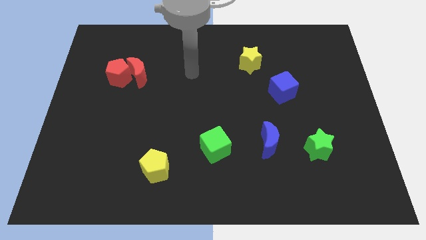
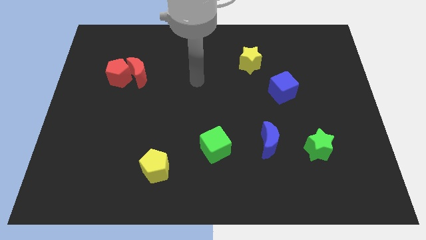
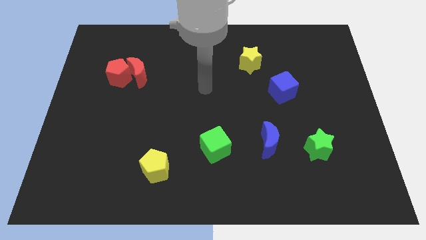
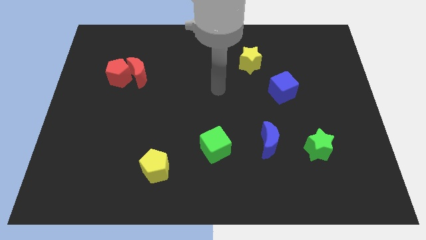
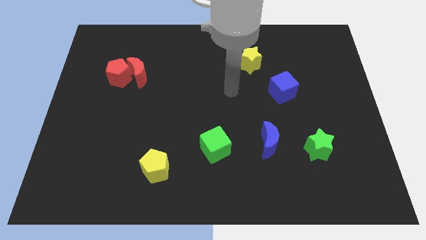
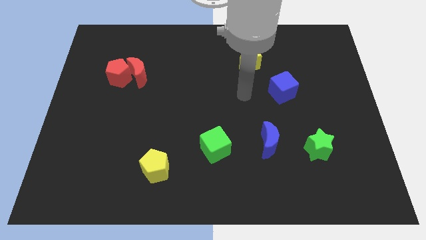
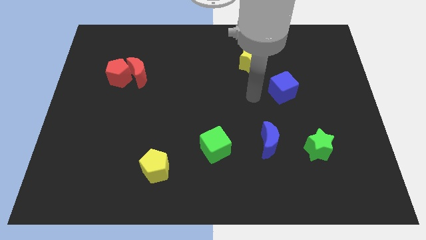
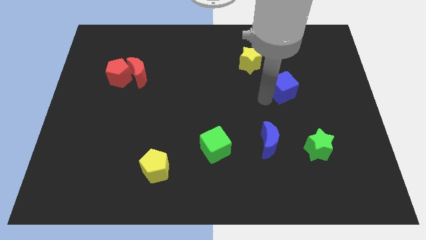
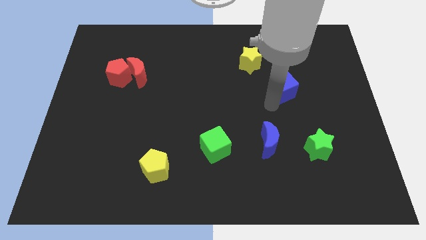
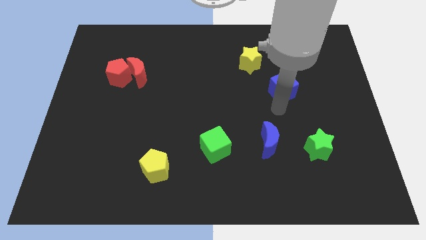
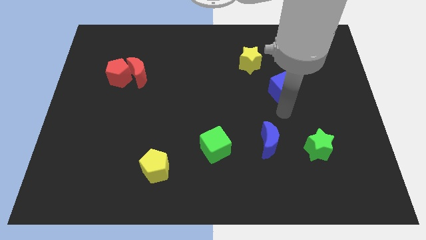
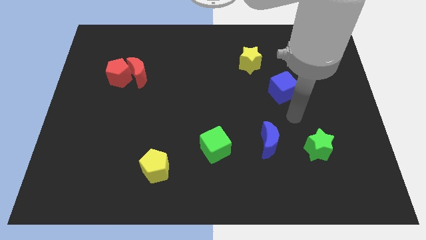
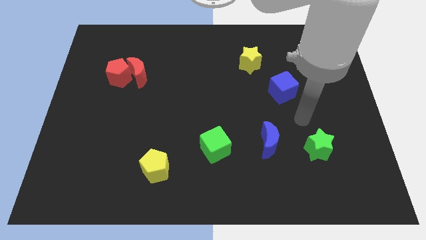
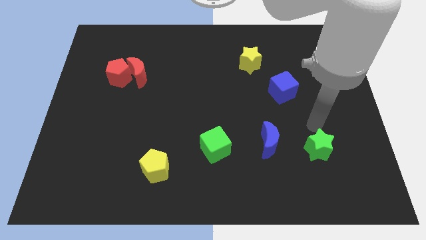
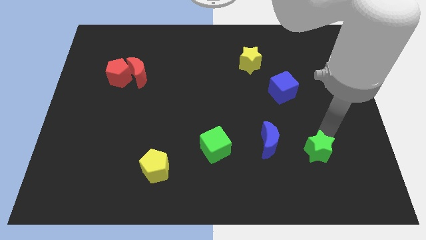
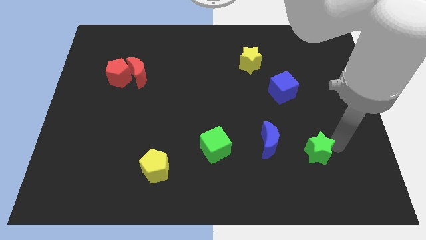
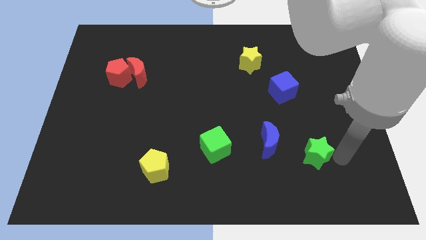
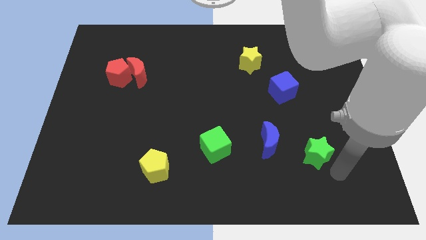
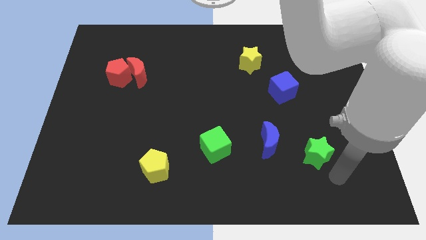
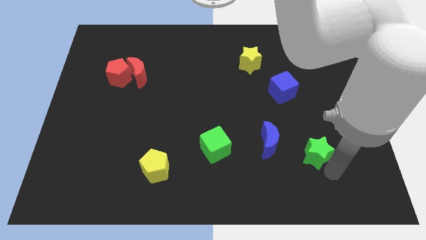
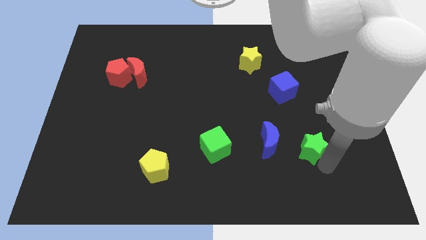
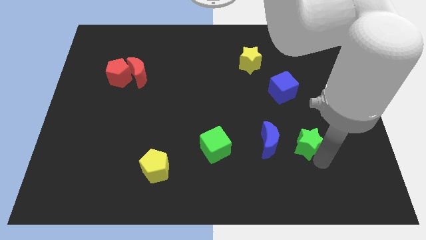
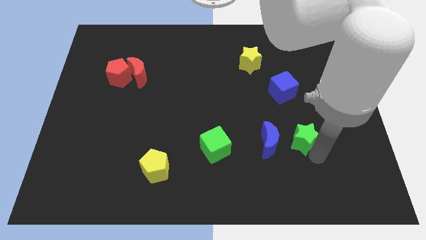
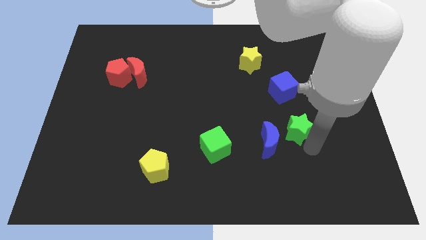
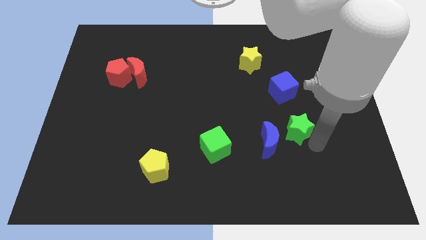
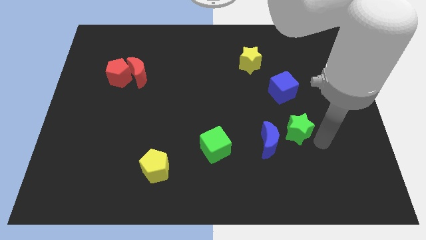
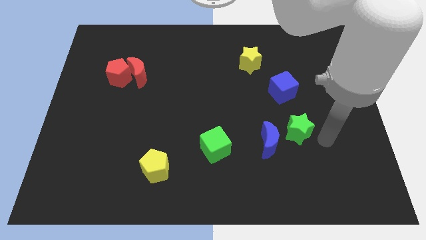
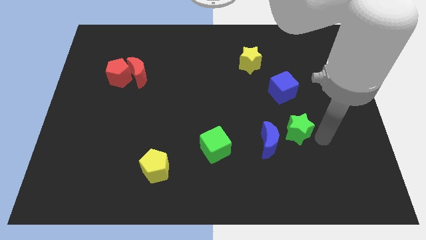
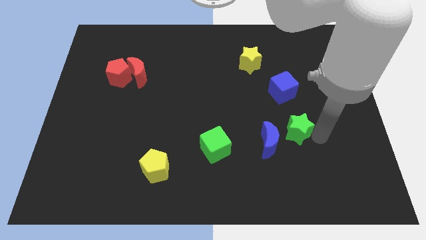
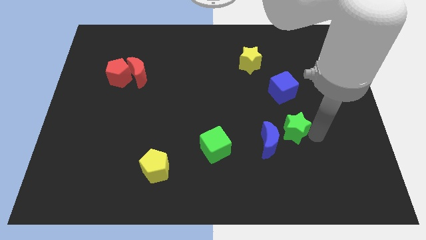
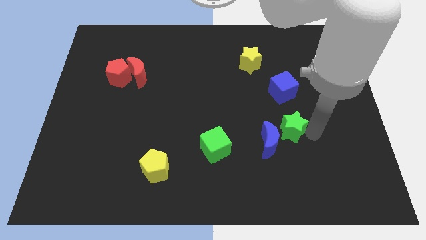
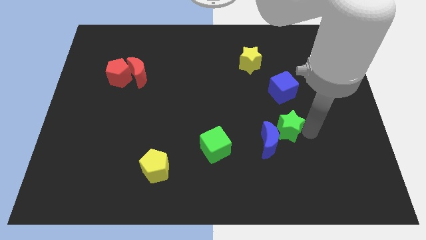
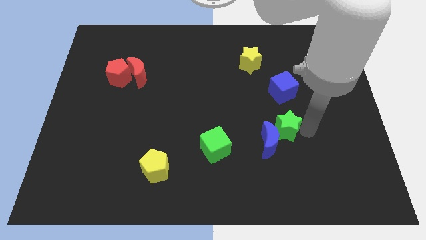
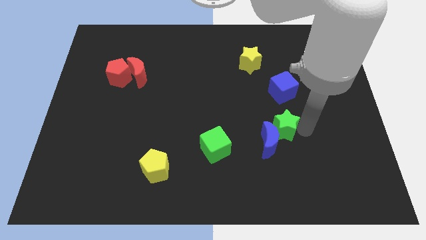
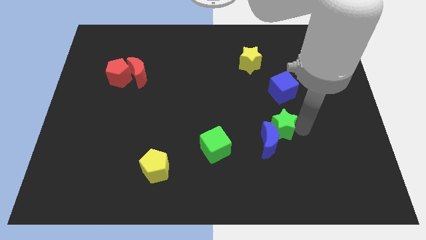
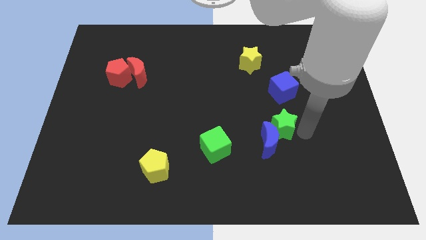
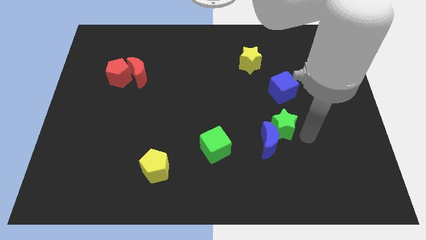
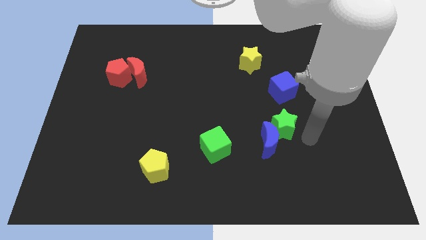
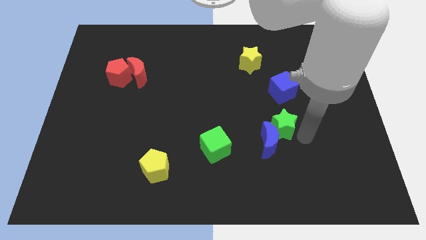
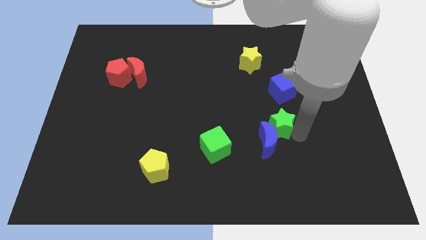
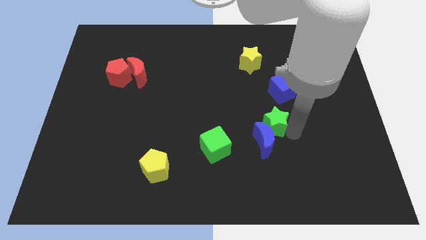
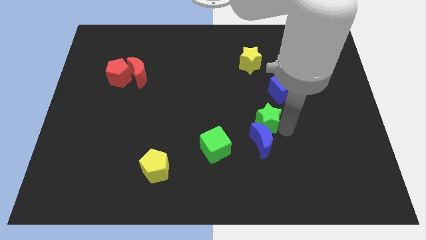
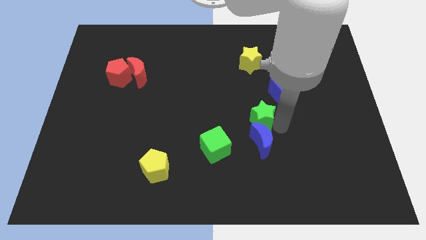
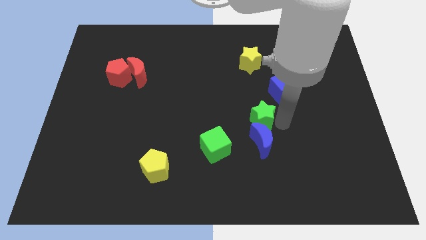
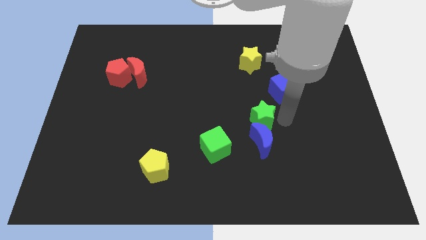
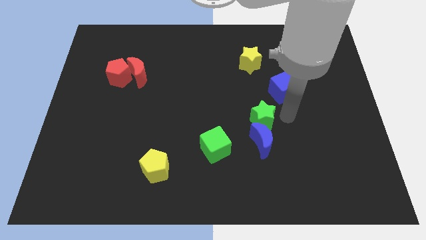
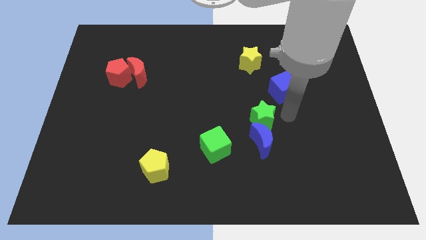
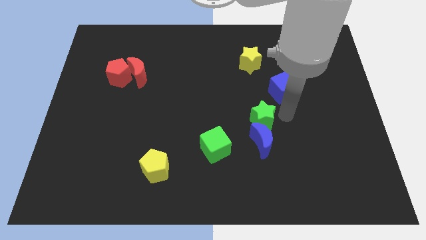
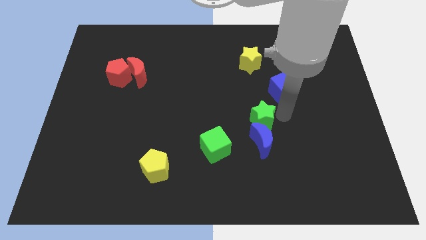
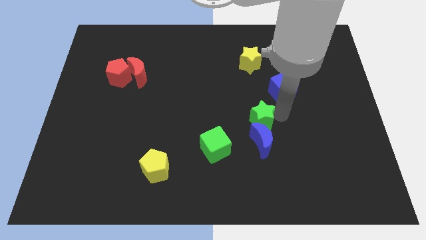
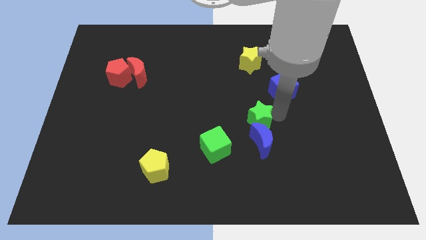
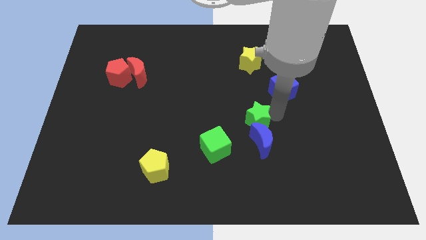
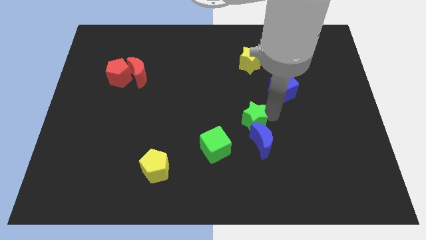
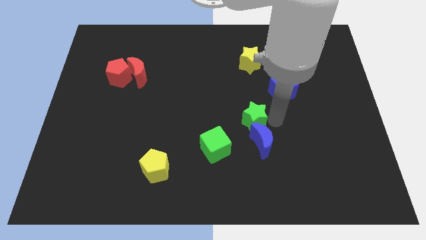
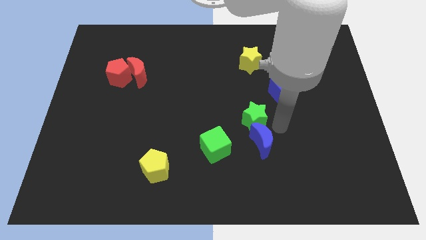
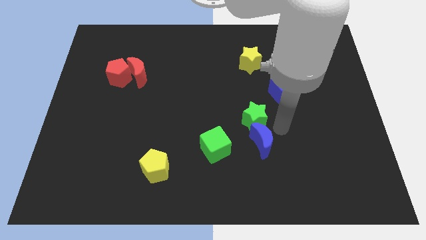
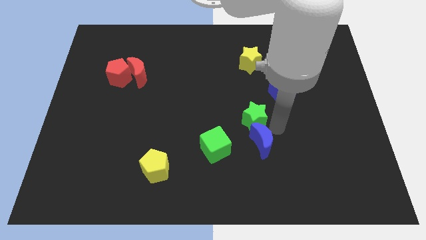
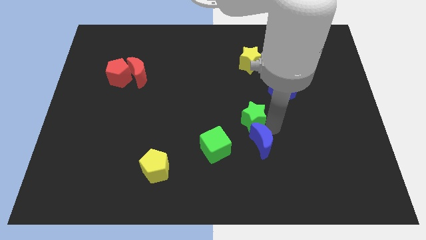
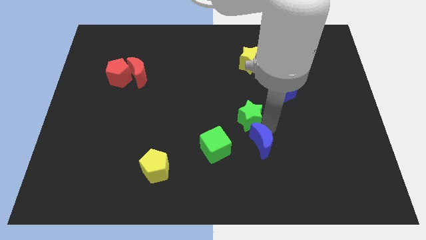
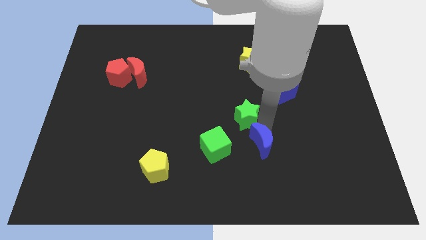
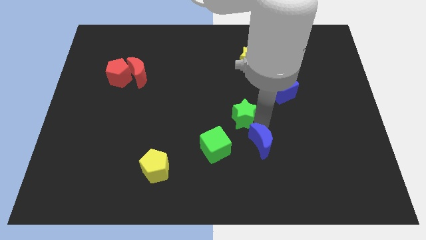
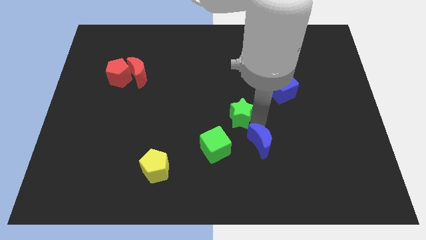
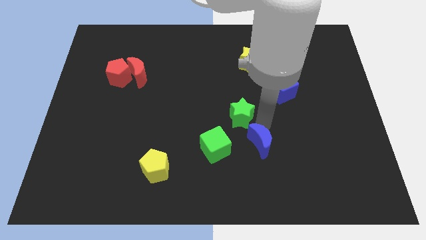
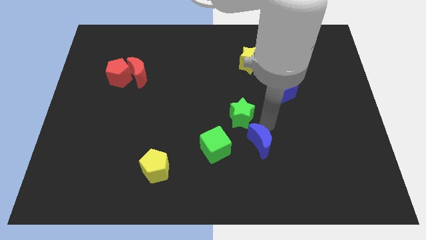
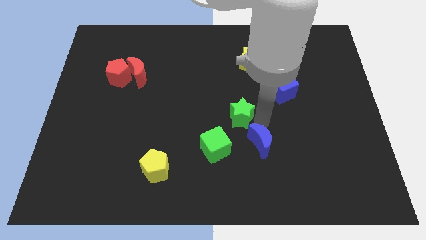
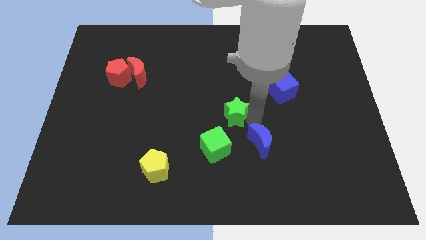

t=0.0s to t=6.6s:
push the green star above the green cube
